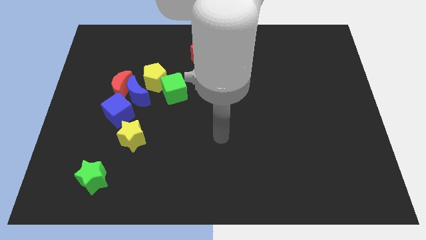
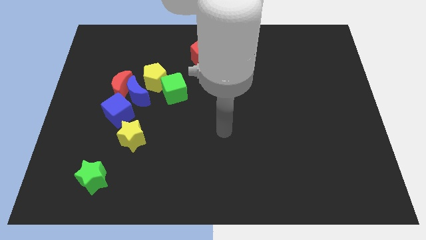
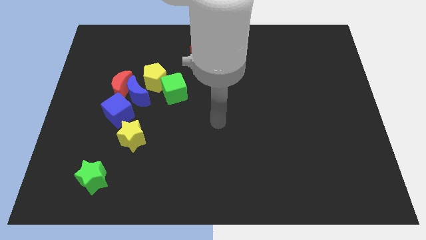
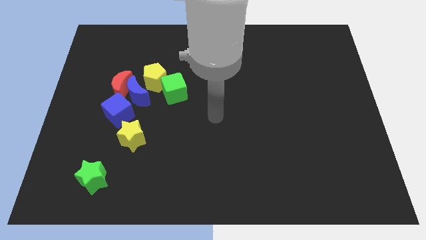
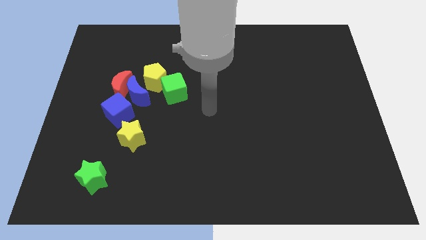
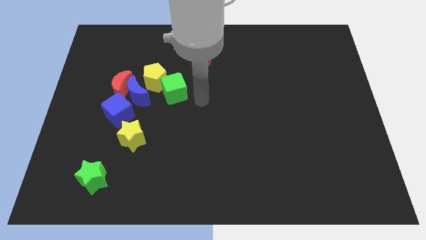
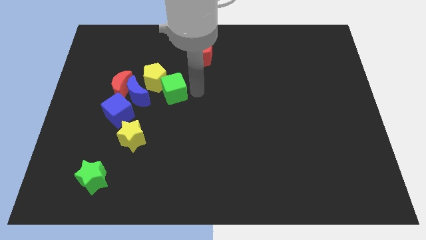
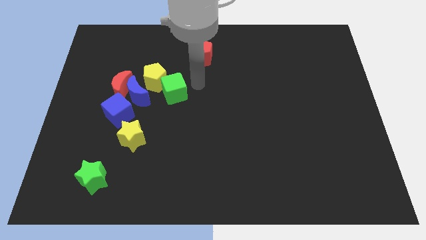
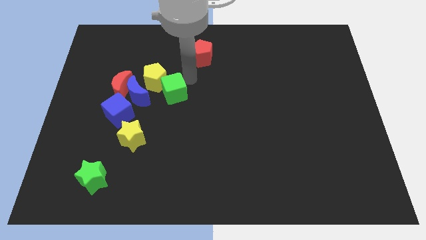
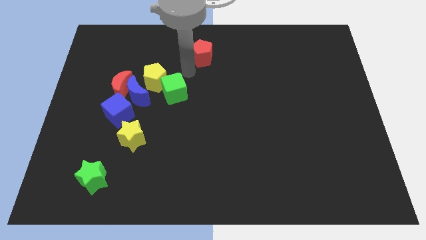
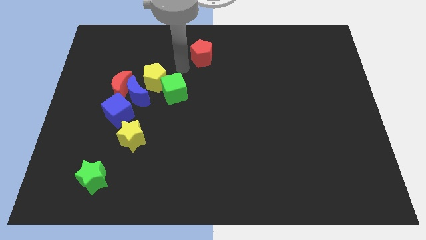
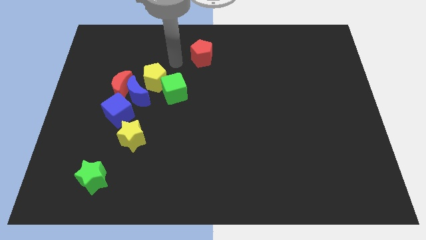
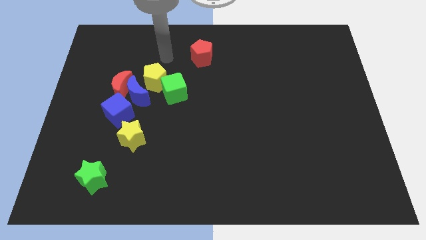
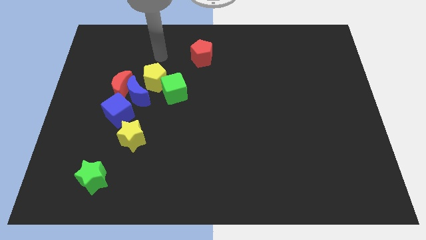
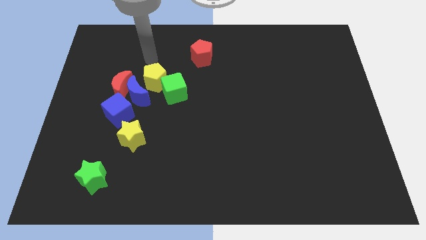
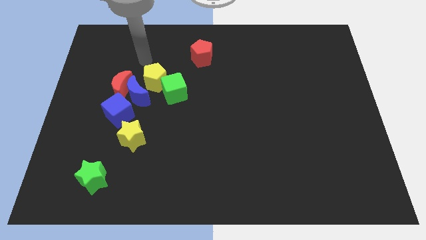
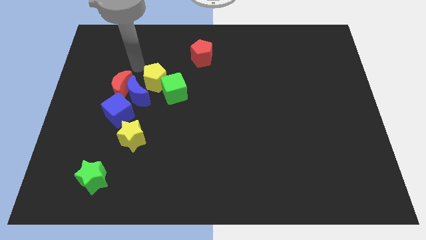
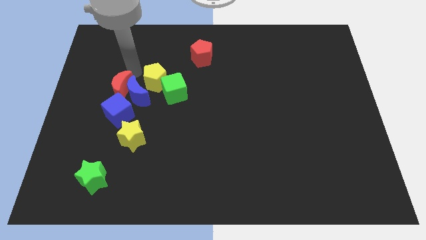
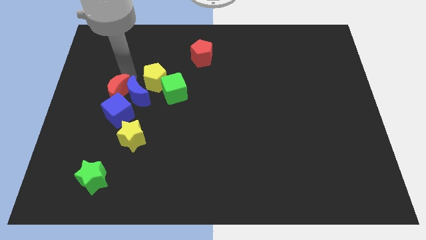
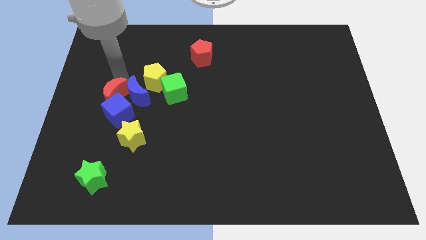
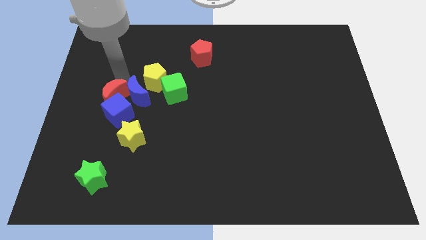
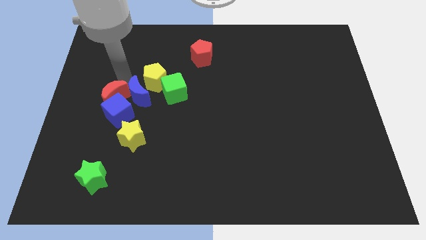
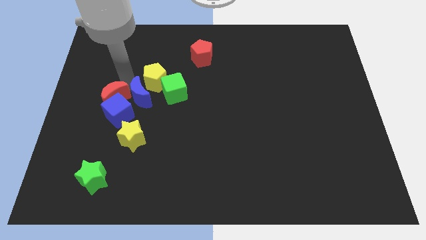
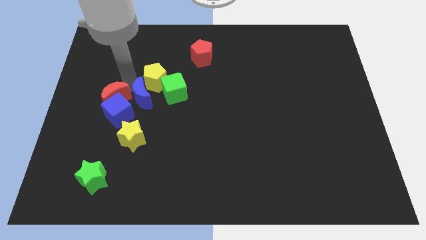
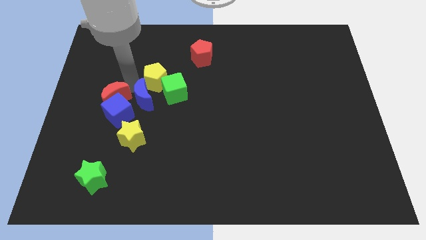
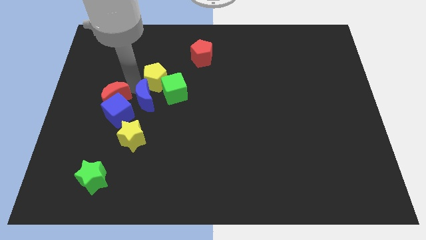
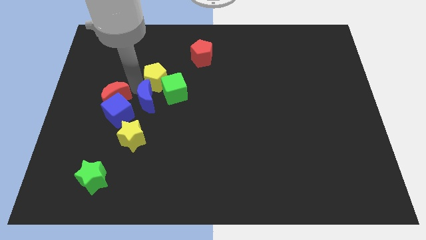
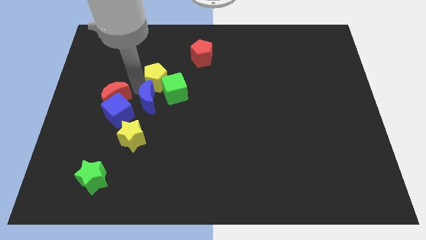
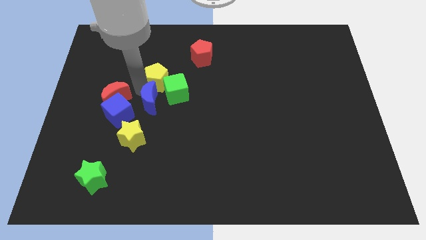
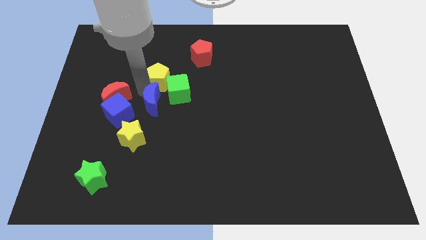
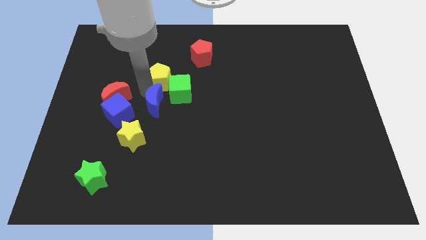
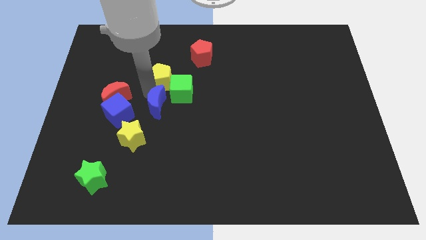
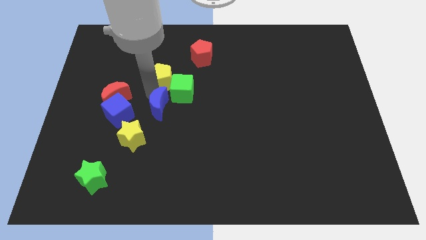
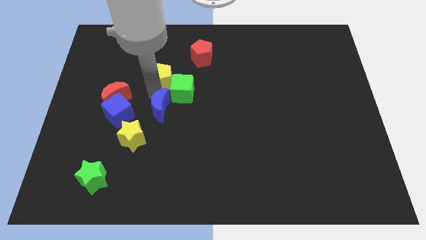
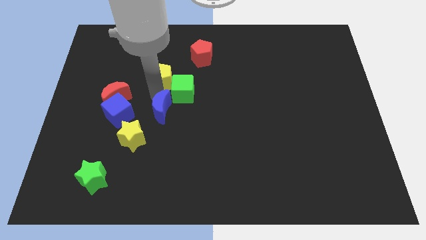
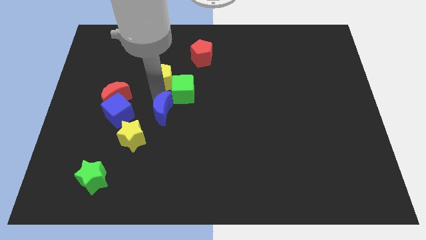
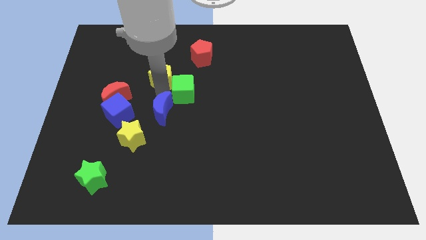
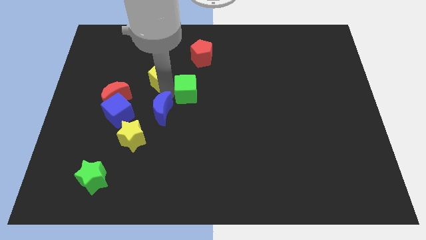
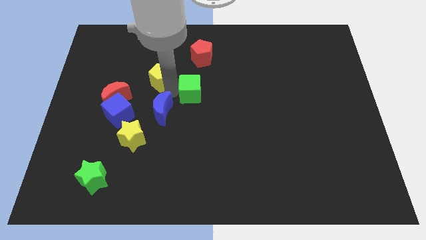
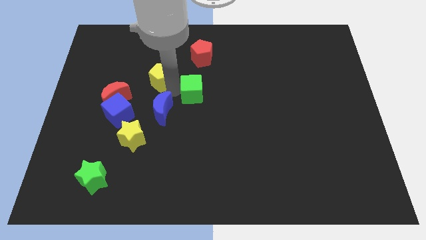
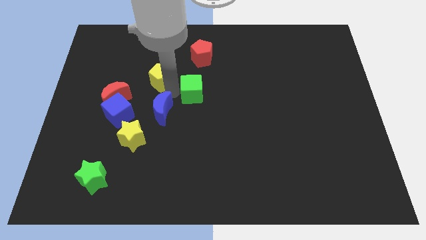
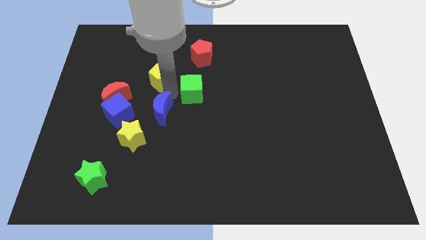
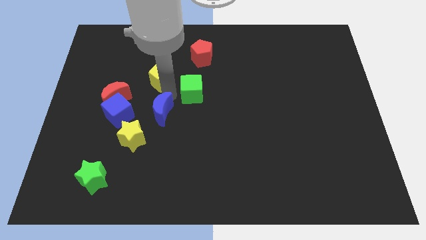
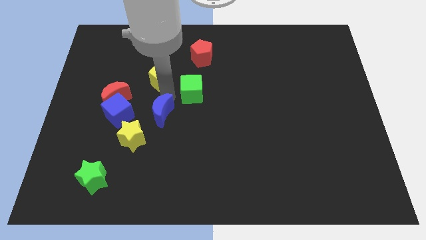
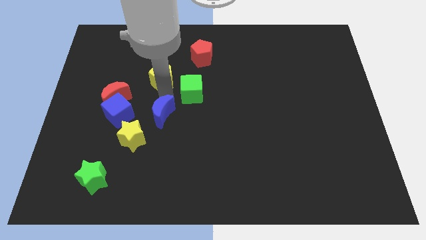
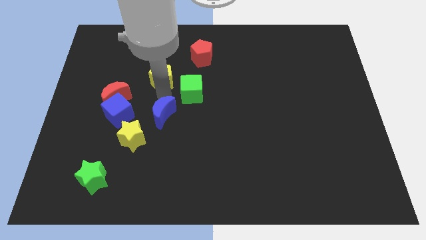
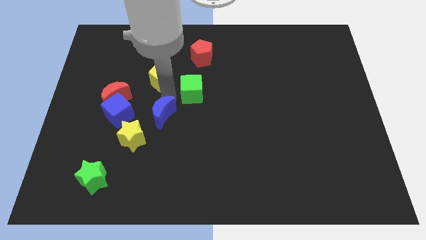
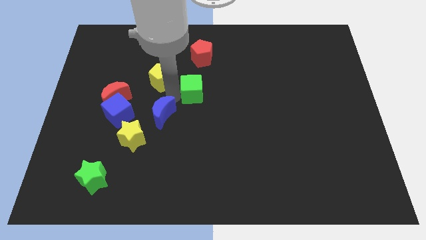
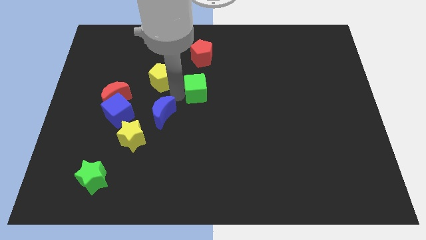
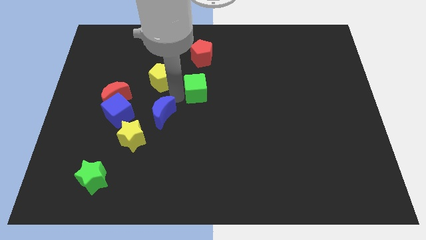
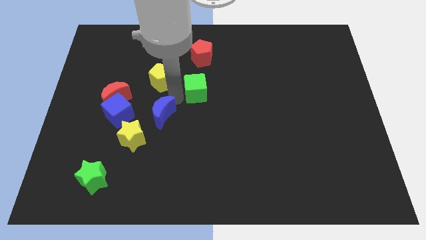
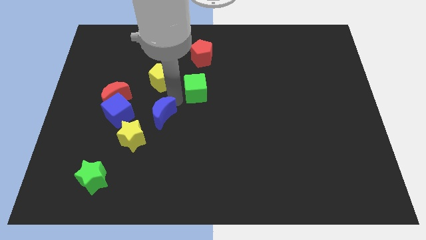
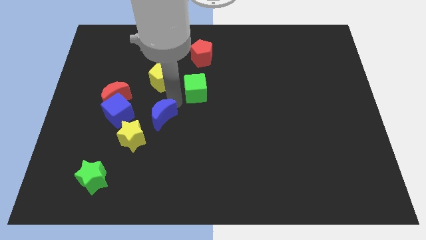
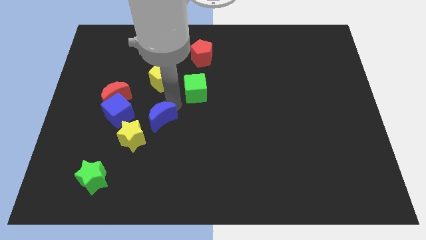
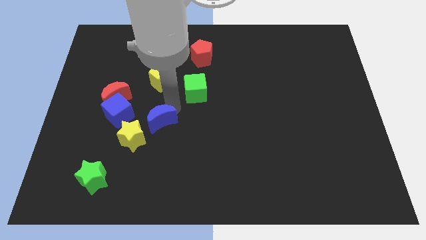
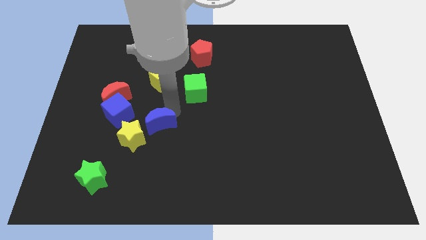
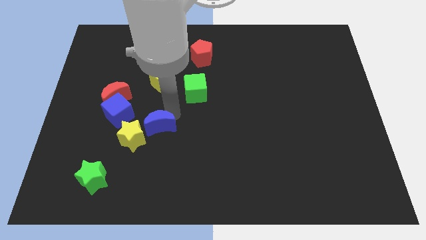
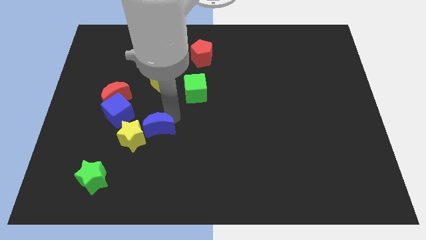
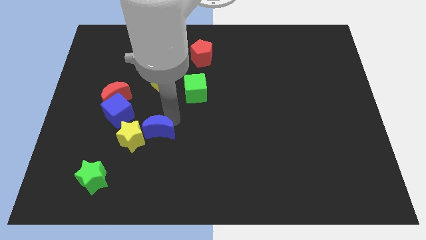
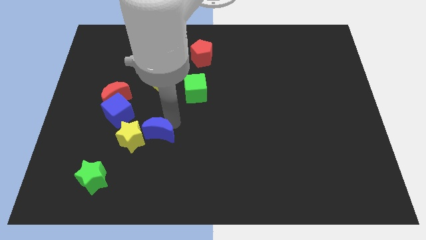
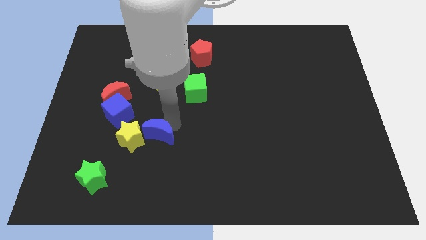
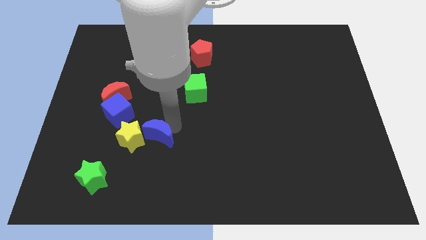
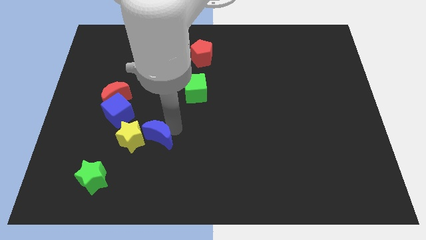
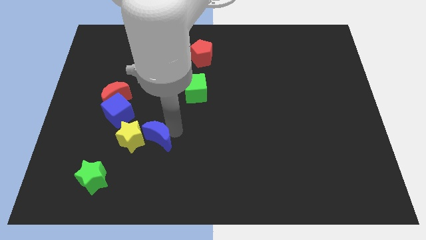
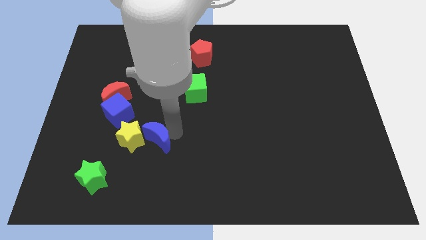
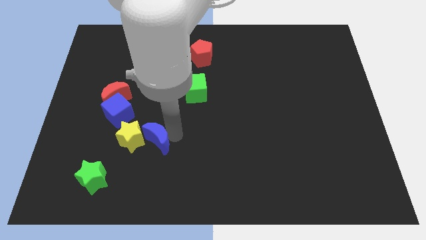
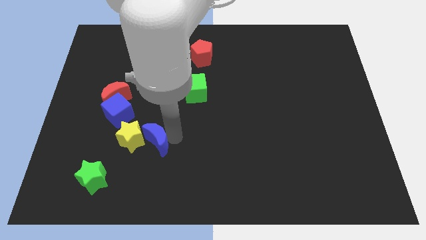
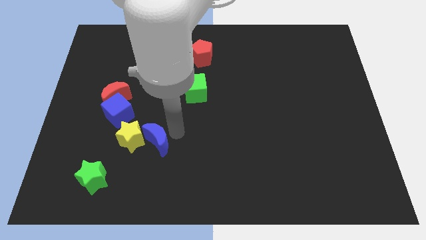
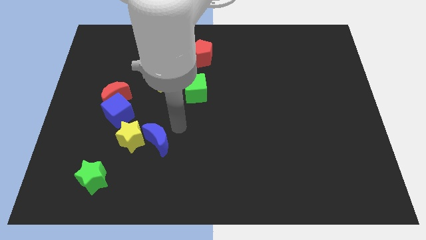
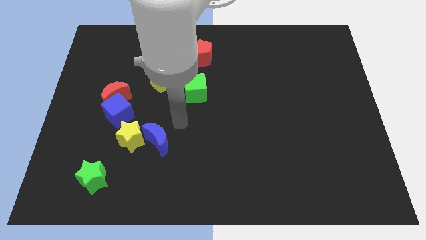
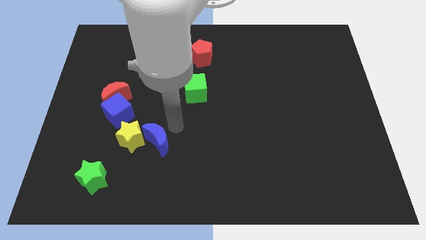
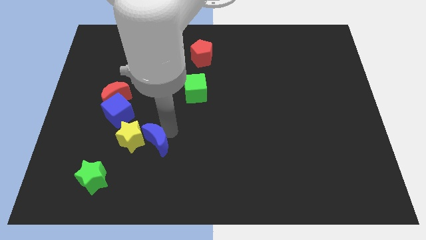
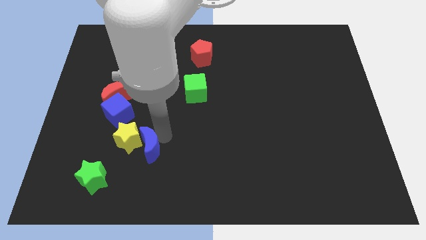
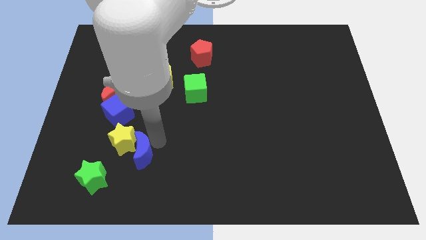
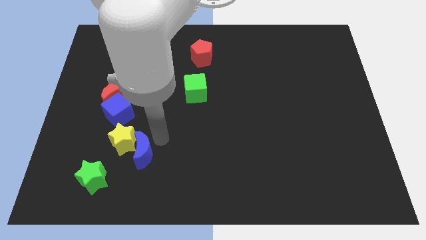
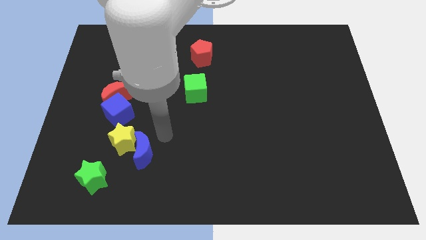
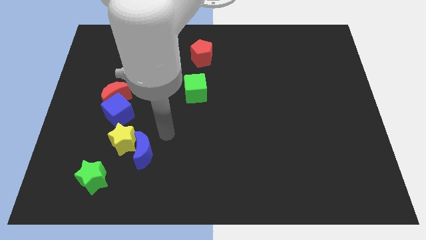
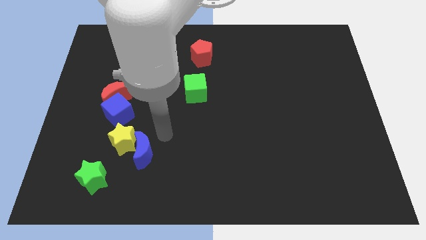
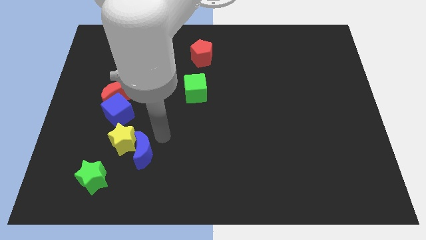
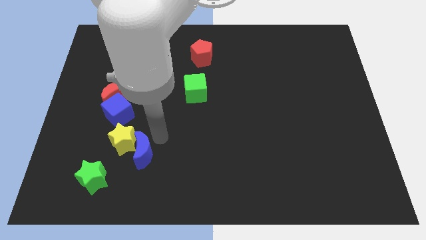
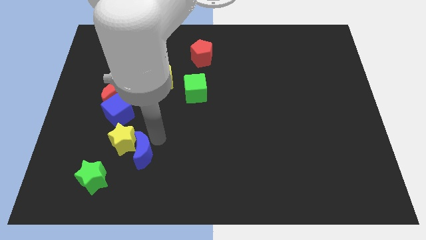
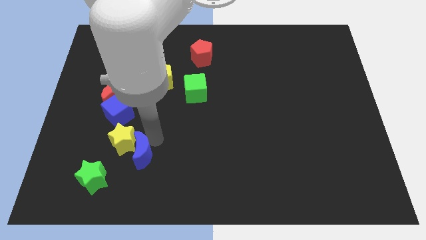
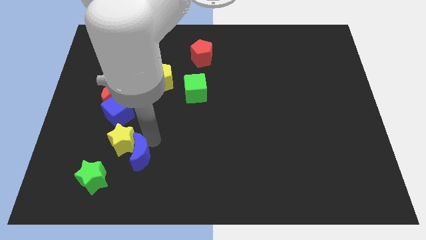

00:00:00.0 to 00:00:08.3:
put the blue moon below the yellow star
